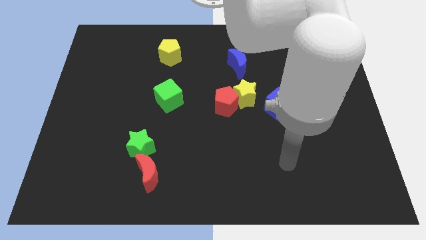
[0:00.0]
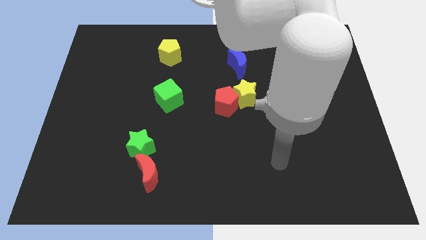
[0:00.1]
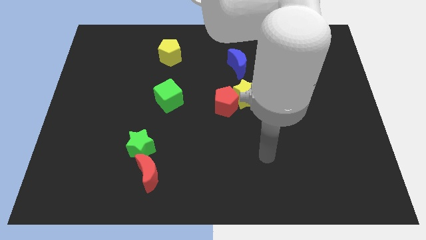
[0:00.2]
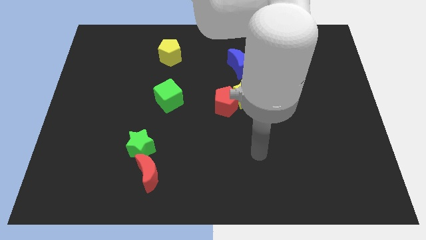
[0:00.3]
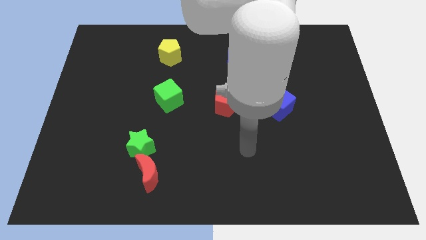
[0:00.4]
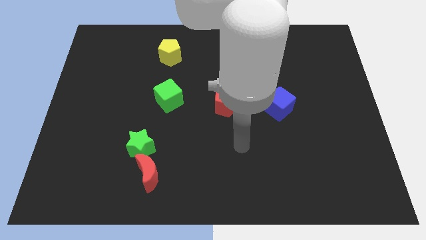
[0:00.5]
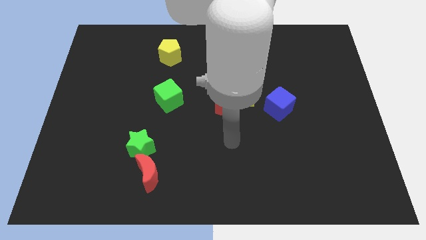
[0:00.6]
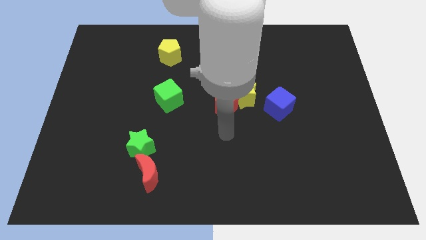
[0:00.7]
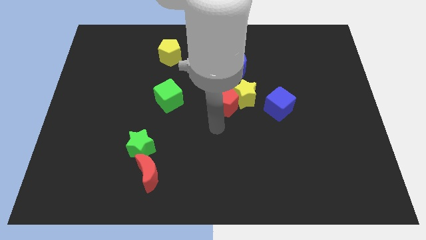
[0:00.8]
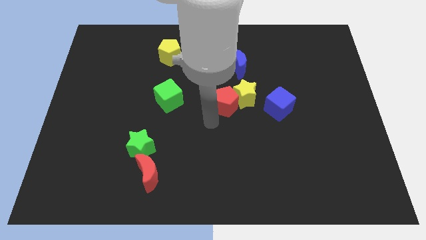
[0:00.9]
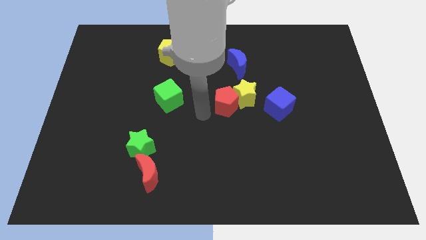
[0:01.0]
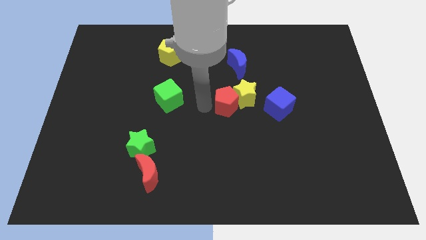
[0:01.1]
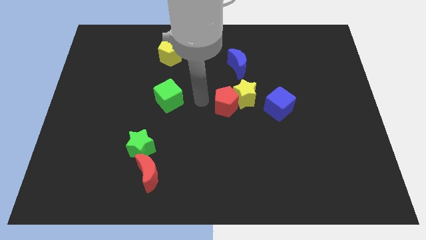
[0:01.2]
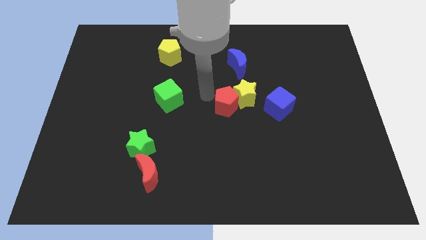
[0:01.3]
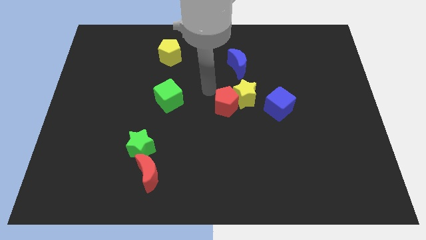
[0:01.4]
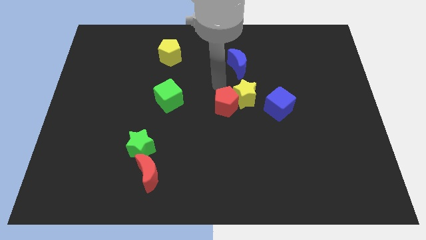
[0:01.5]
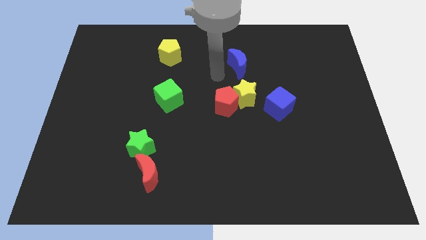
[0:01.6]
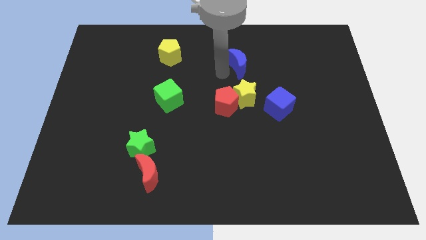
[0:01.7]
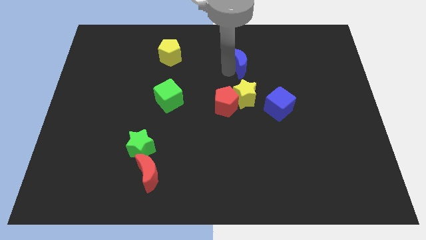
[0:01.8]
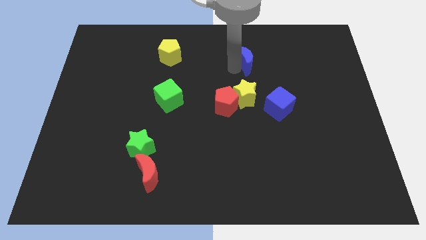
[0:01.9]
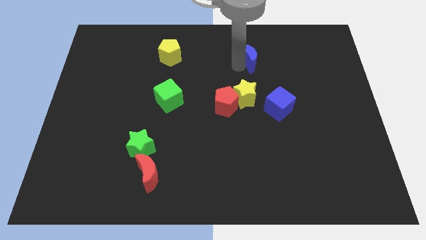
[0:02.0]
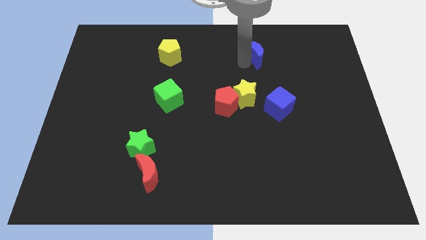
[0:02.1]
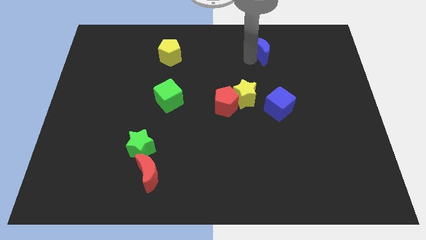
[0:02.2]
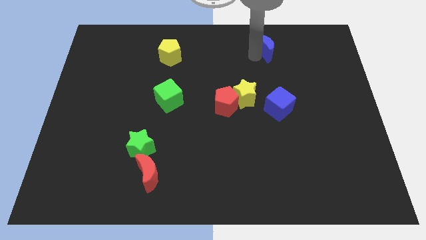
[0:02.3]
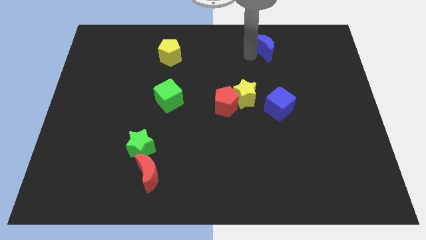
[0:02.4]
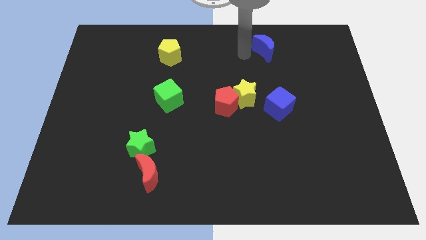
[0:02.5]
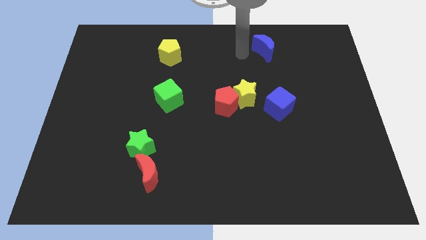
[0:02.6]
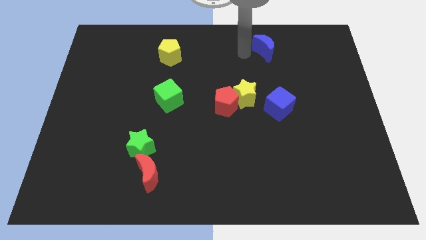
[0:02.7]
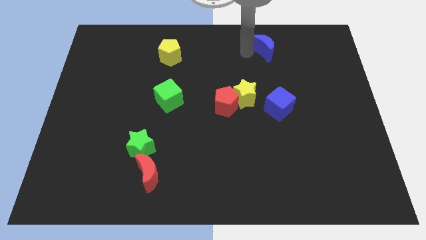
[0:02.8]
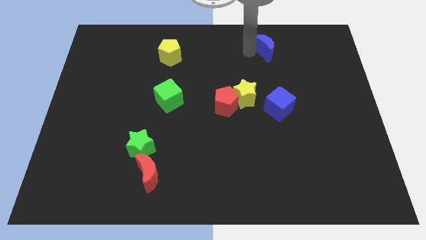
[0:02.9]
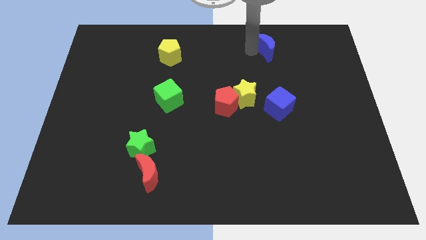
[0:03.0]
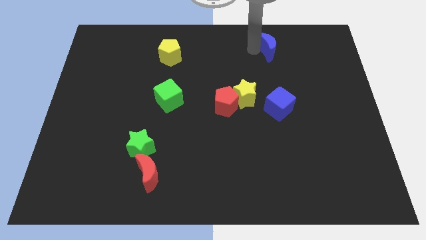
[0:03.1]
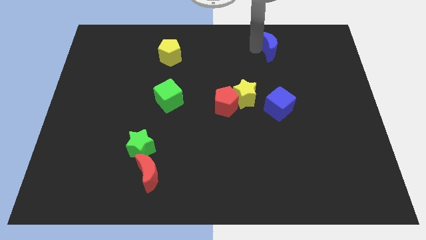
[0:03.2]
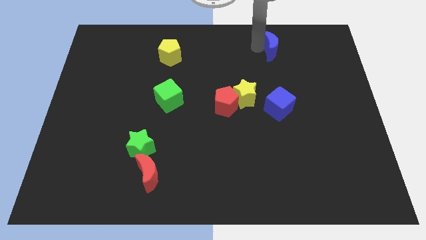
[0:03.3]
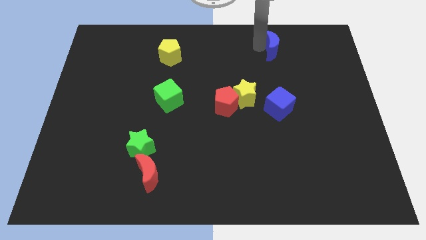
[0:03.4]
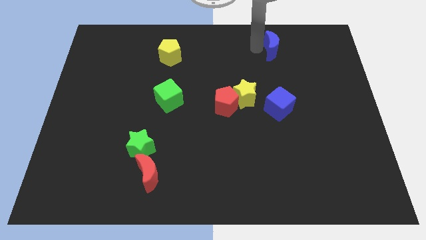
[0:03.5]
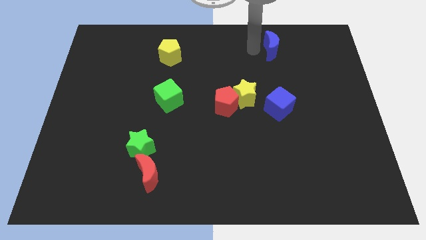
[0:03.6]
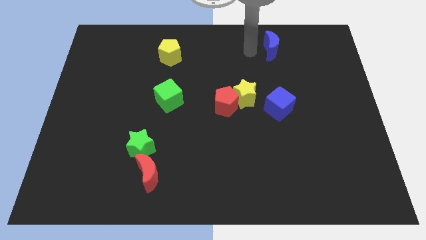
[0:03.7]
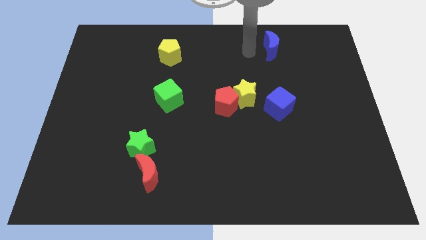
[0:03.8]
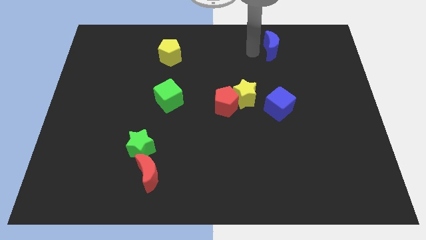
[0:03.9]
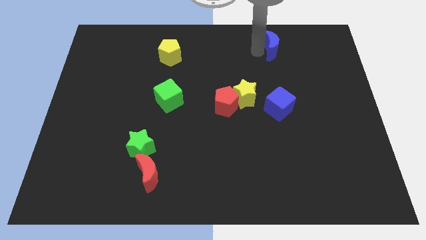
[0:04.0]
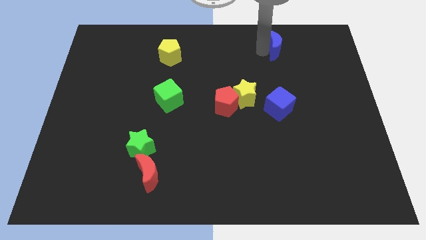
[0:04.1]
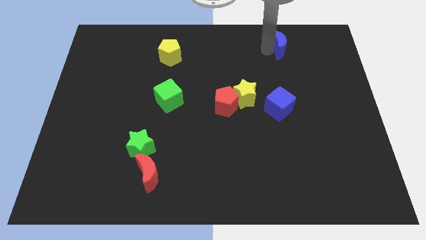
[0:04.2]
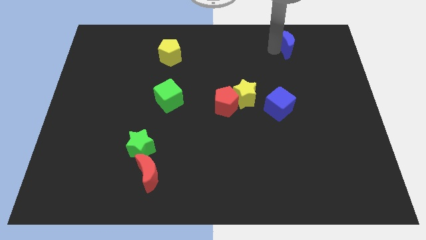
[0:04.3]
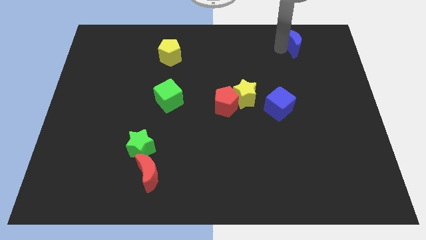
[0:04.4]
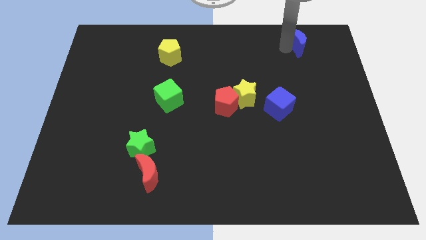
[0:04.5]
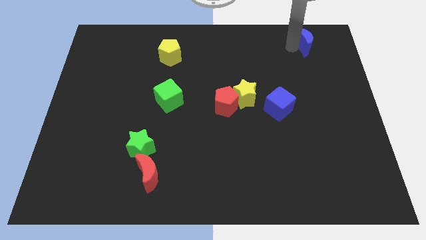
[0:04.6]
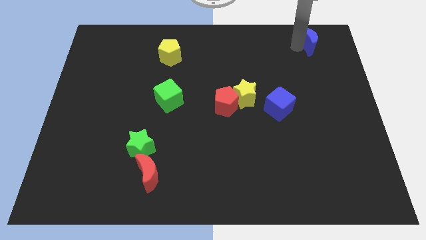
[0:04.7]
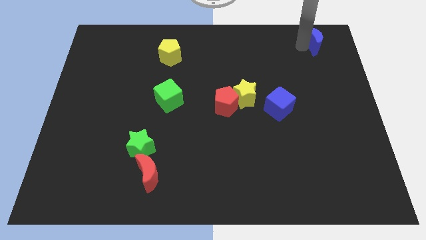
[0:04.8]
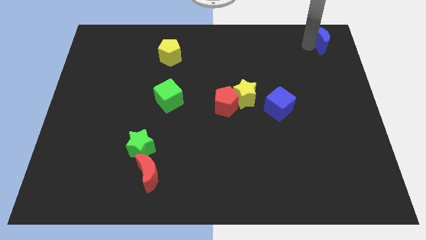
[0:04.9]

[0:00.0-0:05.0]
push the blue moon to the upper right corner

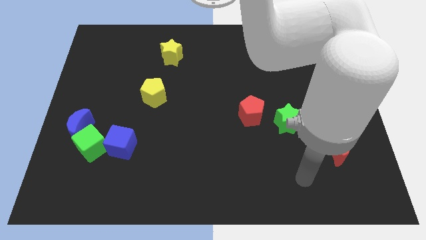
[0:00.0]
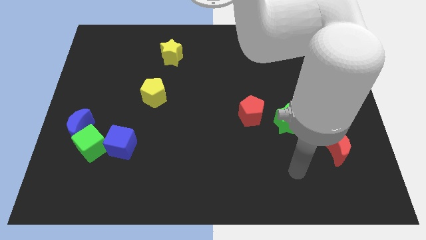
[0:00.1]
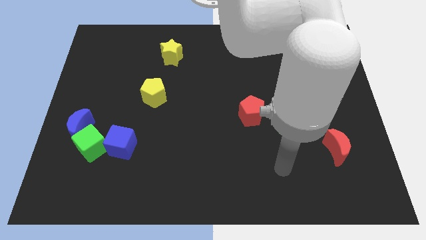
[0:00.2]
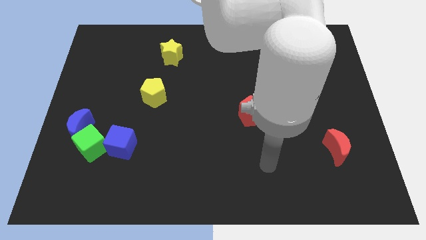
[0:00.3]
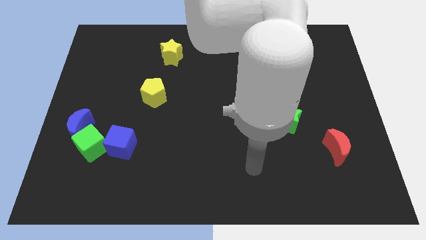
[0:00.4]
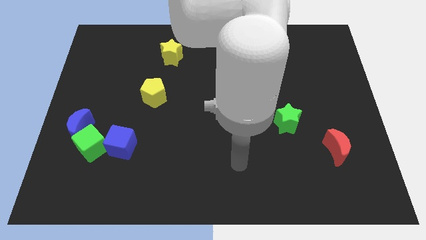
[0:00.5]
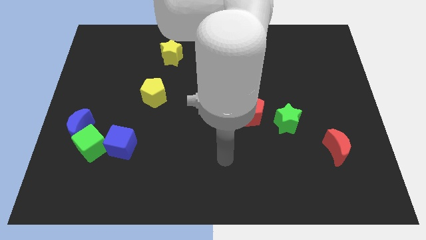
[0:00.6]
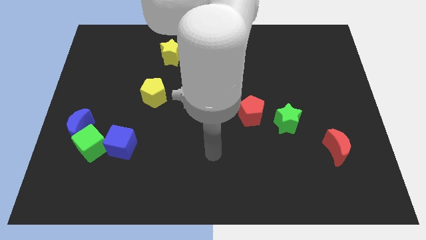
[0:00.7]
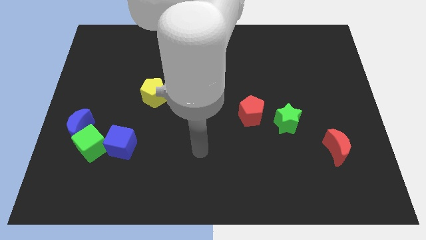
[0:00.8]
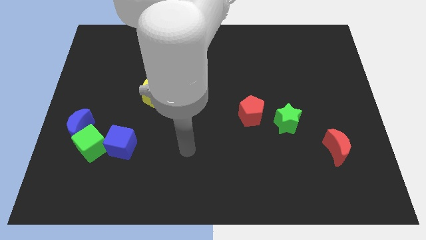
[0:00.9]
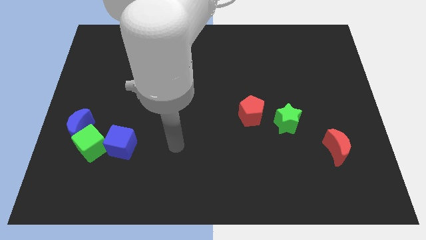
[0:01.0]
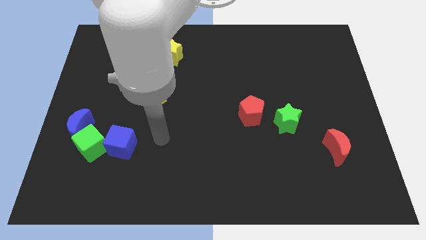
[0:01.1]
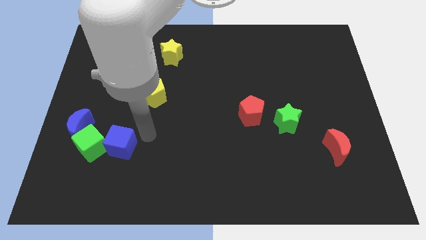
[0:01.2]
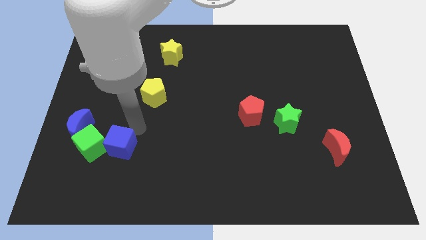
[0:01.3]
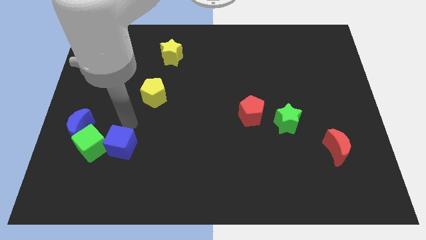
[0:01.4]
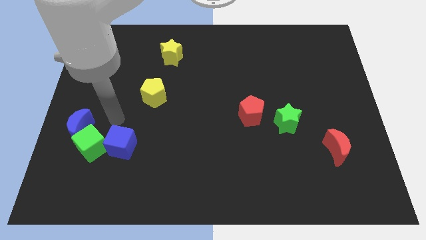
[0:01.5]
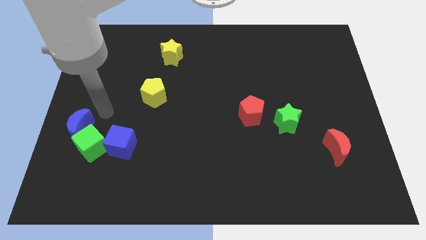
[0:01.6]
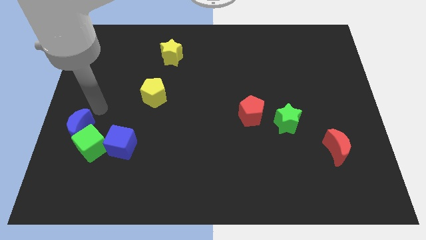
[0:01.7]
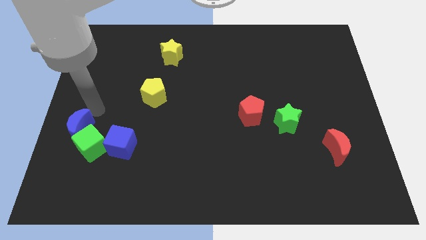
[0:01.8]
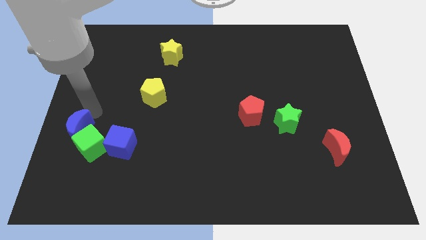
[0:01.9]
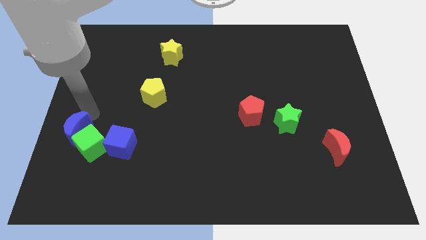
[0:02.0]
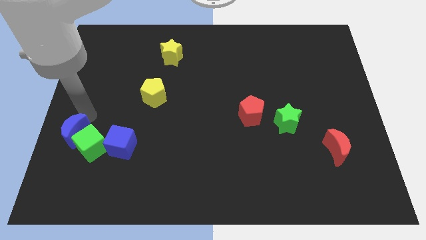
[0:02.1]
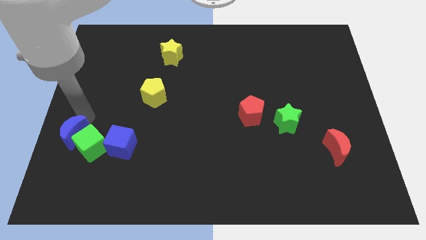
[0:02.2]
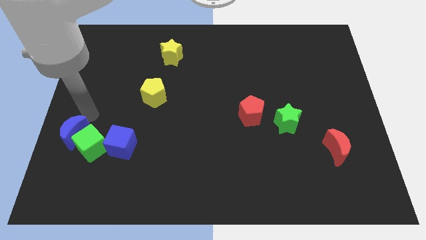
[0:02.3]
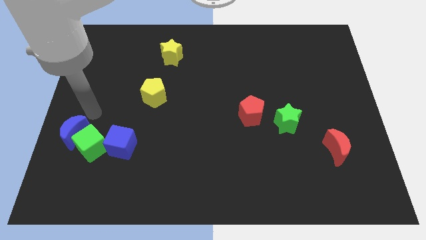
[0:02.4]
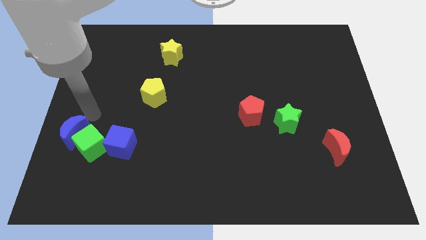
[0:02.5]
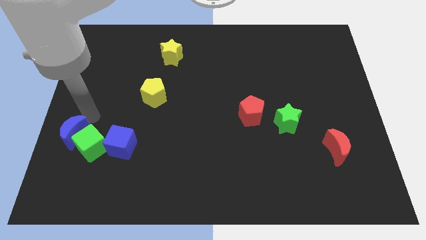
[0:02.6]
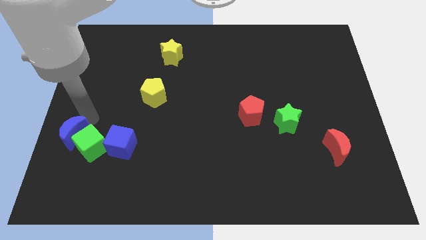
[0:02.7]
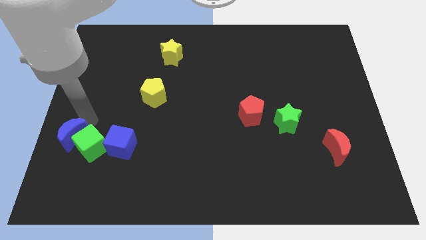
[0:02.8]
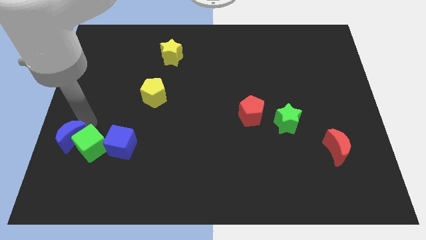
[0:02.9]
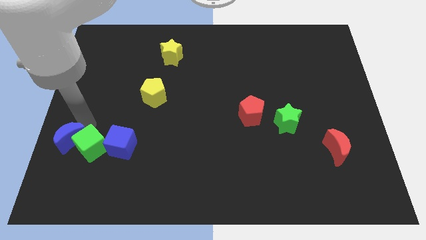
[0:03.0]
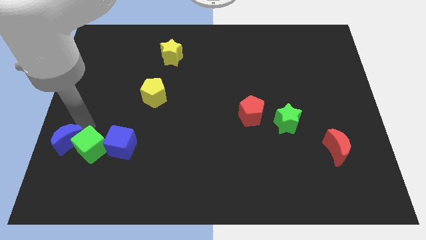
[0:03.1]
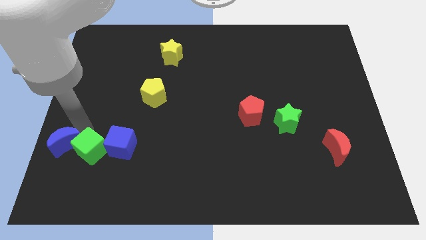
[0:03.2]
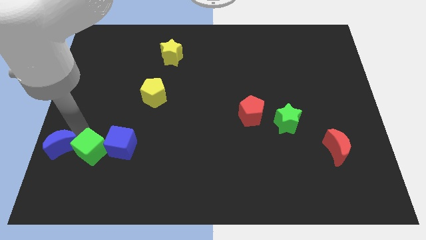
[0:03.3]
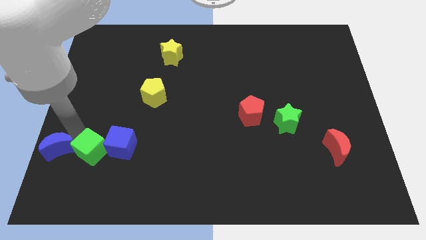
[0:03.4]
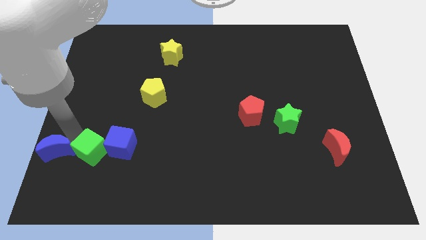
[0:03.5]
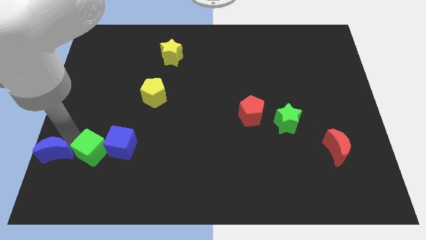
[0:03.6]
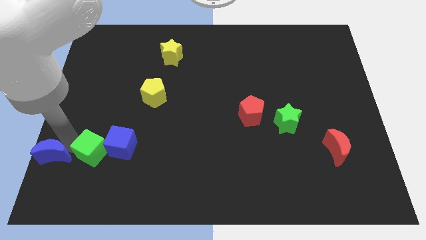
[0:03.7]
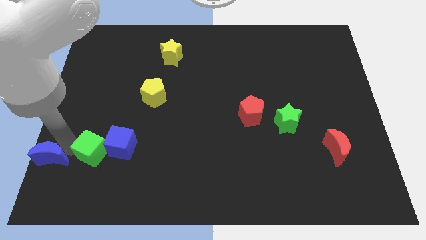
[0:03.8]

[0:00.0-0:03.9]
put the blue moon to the bottom left corner
